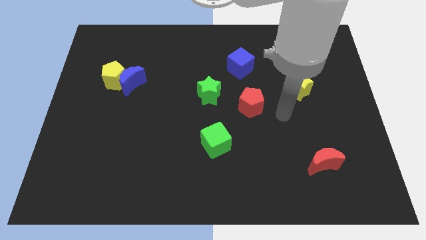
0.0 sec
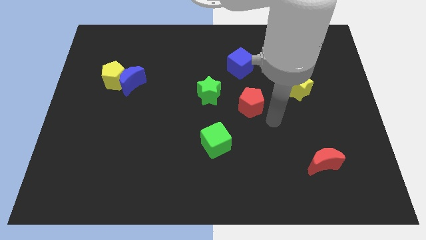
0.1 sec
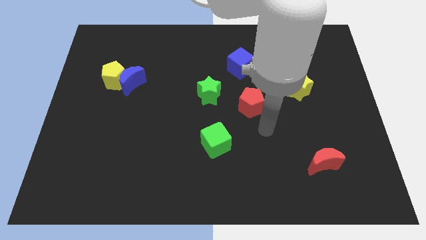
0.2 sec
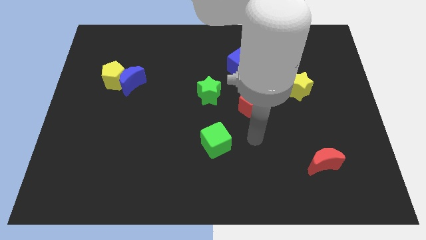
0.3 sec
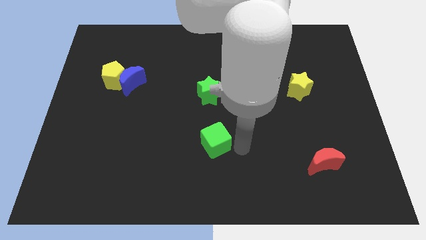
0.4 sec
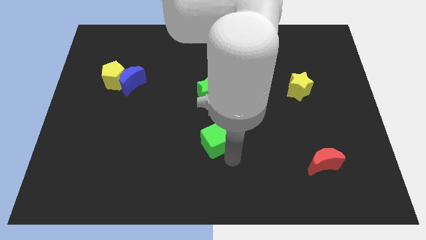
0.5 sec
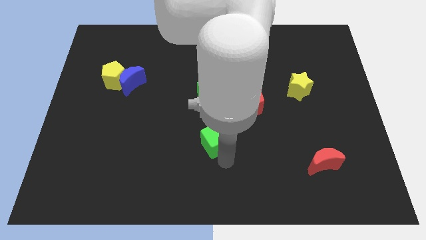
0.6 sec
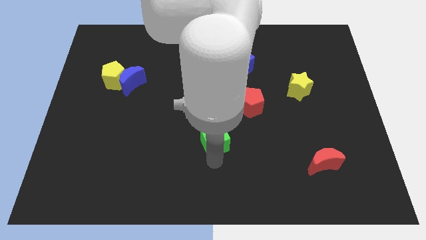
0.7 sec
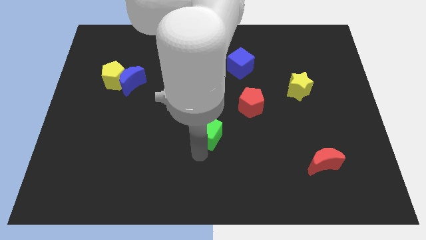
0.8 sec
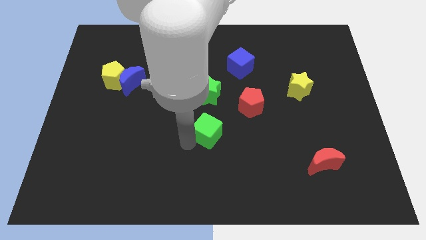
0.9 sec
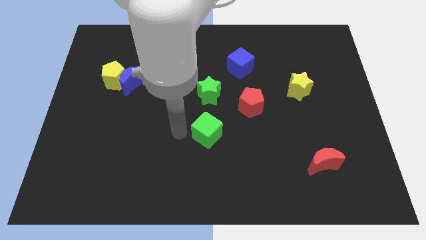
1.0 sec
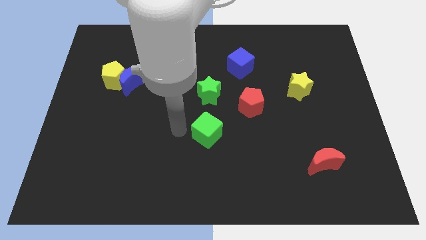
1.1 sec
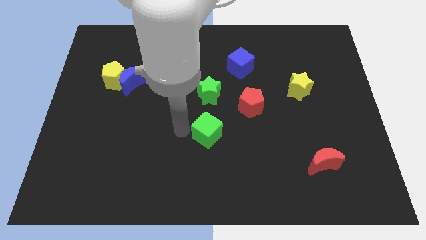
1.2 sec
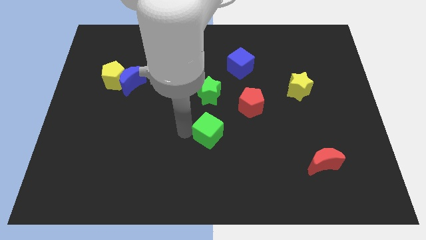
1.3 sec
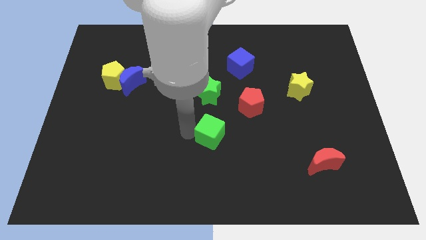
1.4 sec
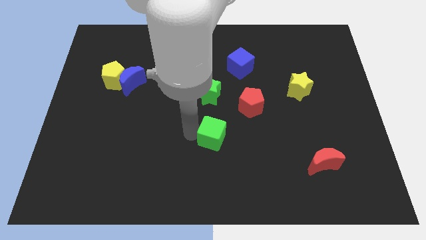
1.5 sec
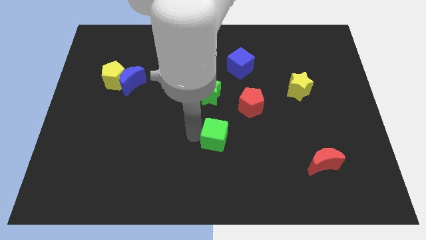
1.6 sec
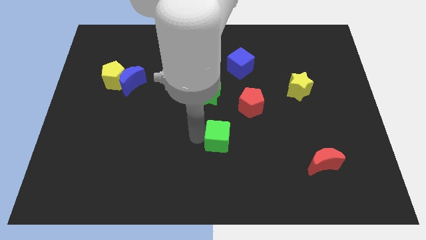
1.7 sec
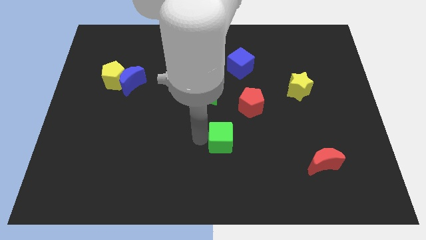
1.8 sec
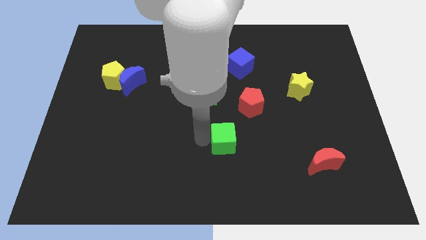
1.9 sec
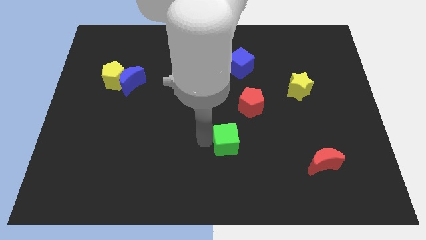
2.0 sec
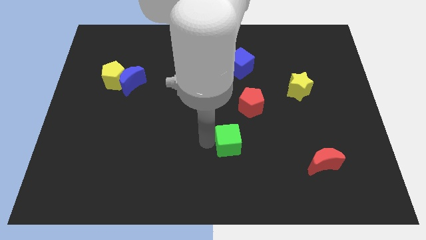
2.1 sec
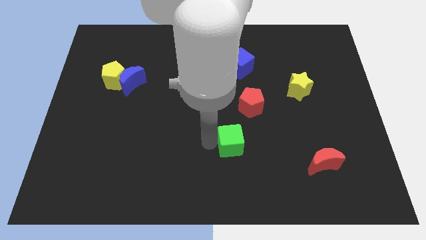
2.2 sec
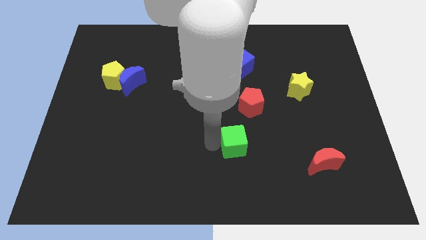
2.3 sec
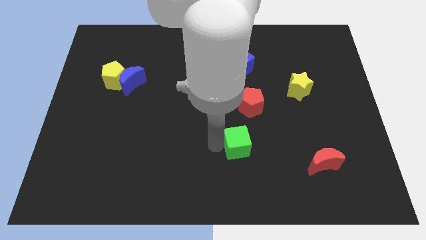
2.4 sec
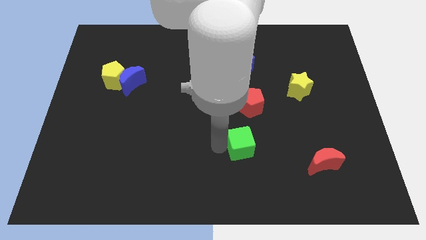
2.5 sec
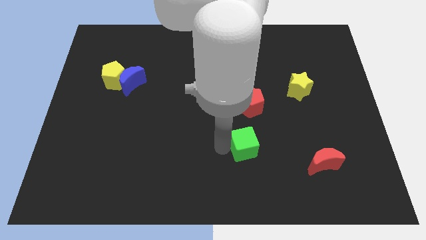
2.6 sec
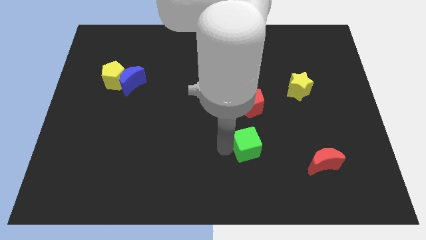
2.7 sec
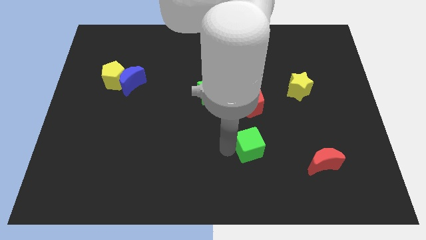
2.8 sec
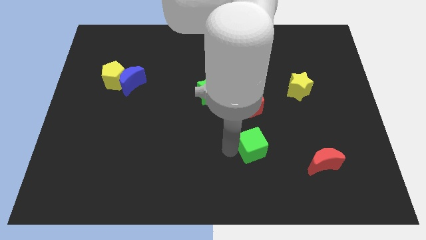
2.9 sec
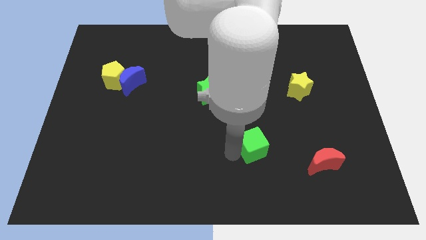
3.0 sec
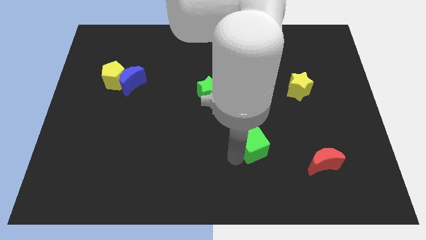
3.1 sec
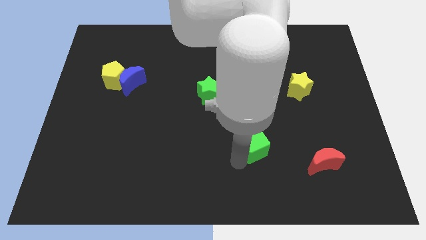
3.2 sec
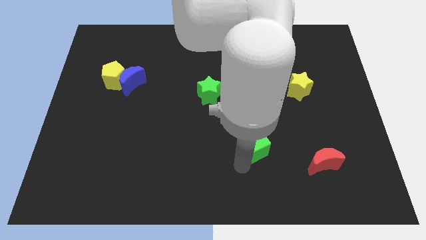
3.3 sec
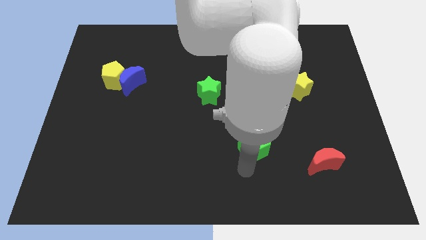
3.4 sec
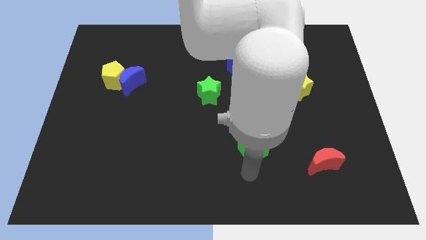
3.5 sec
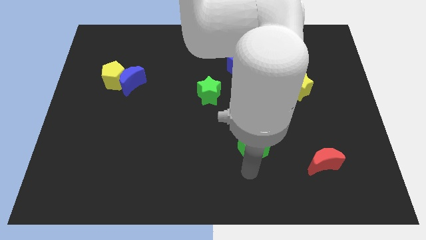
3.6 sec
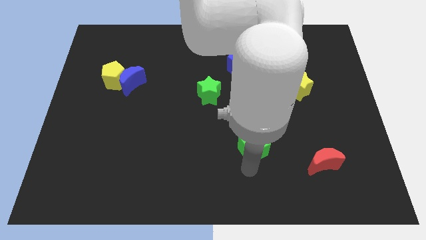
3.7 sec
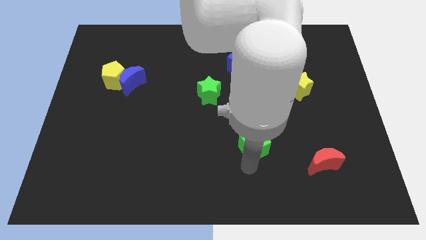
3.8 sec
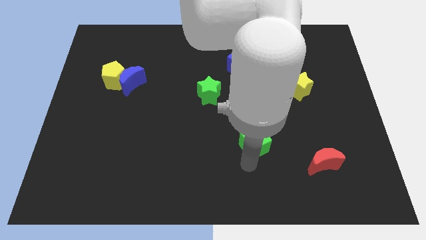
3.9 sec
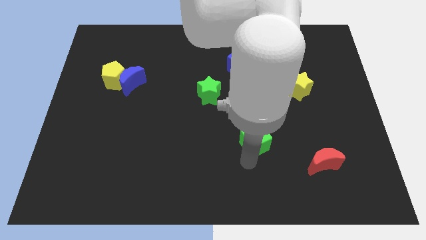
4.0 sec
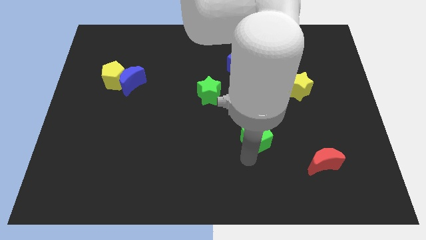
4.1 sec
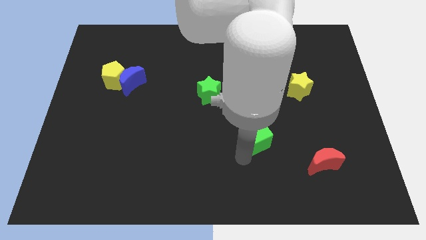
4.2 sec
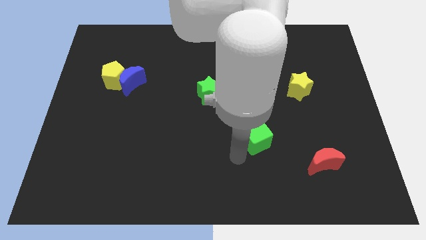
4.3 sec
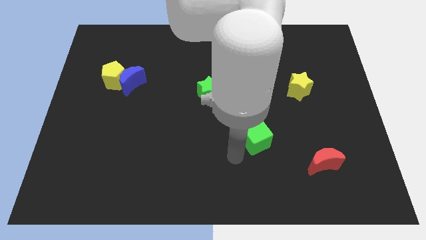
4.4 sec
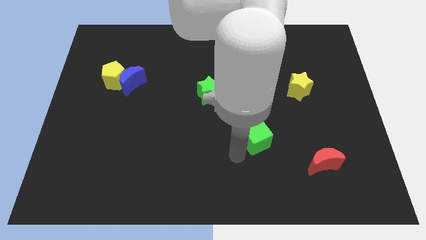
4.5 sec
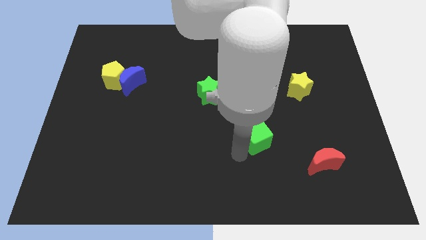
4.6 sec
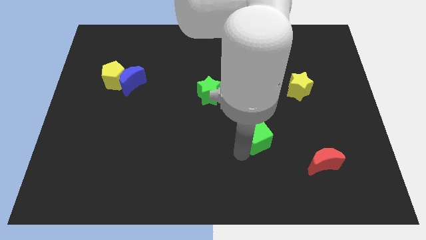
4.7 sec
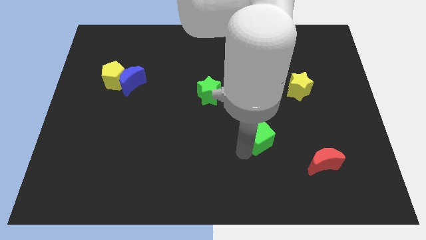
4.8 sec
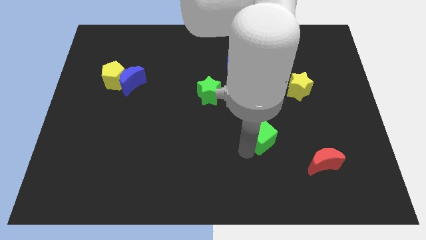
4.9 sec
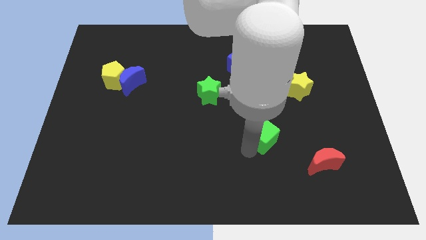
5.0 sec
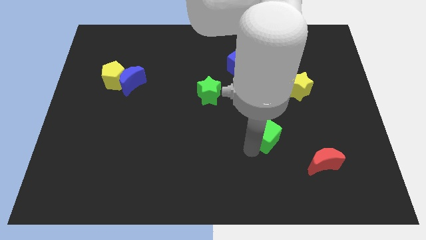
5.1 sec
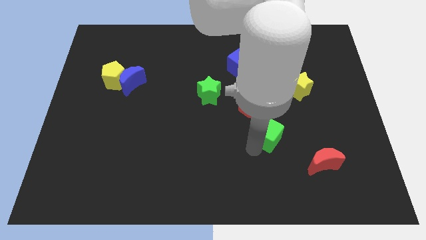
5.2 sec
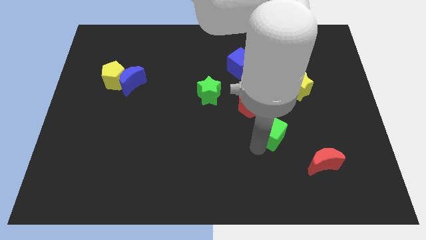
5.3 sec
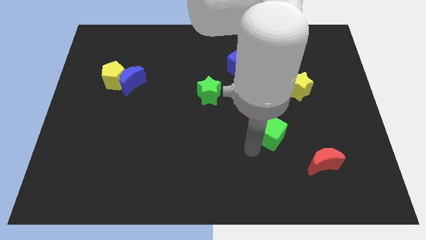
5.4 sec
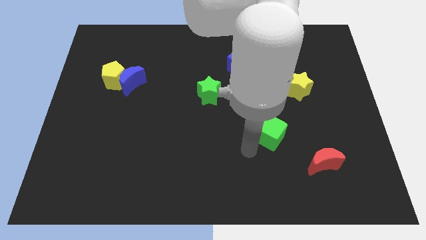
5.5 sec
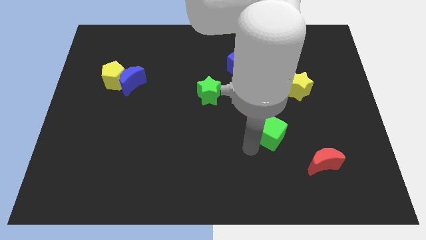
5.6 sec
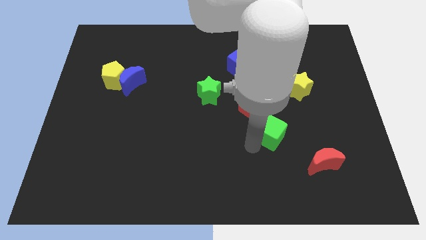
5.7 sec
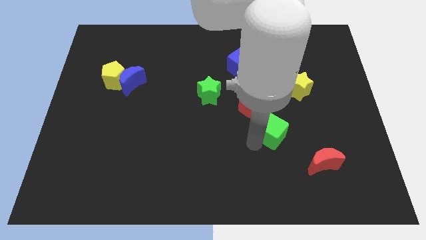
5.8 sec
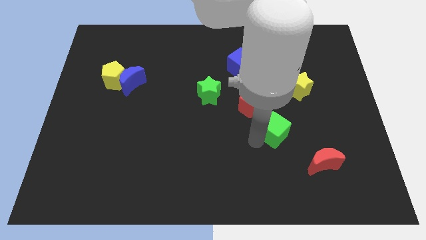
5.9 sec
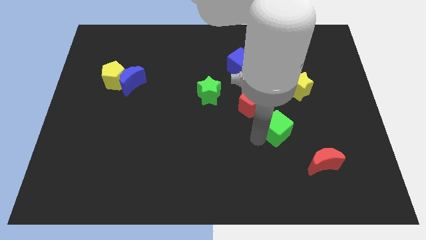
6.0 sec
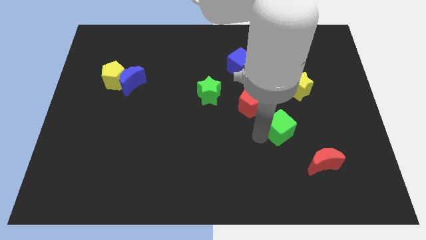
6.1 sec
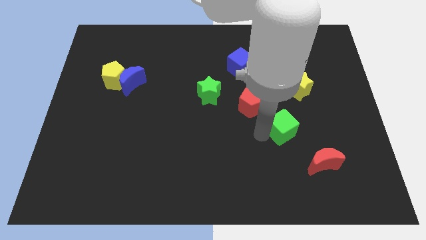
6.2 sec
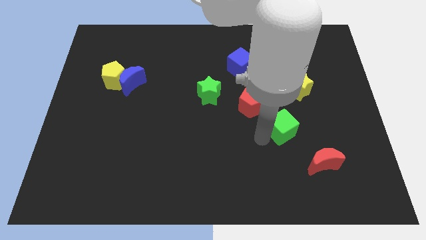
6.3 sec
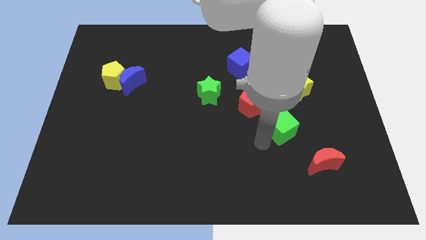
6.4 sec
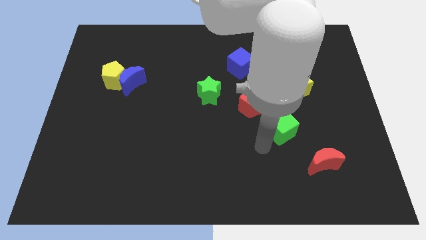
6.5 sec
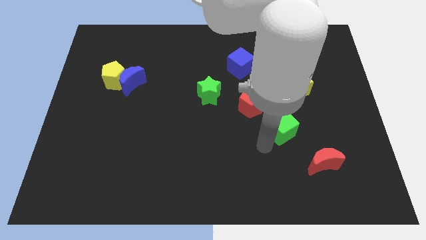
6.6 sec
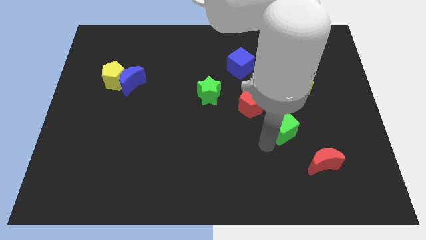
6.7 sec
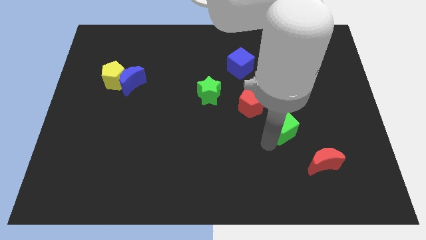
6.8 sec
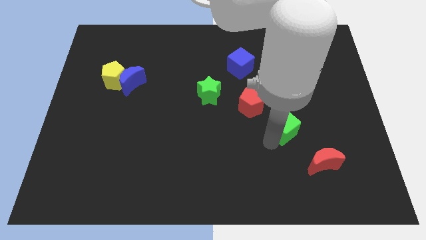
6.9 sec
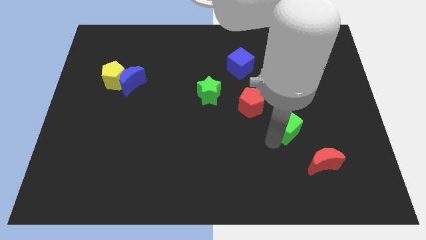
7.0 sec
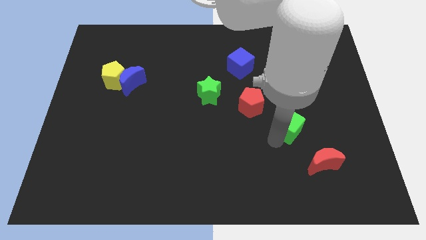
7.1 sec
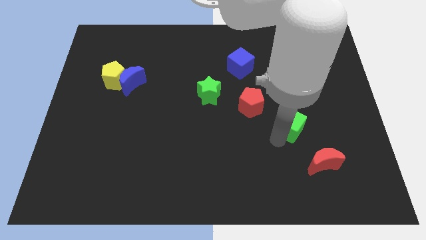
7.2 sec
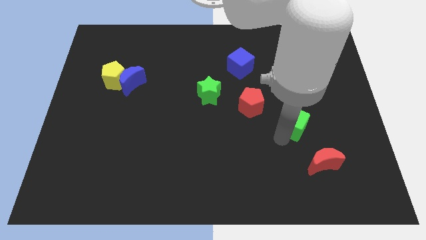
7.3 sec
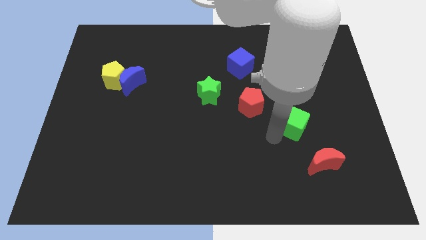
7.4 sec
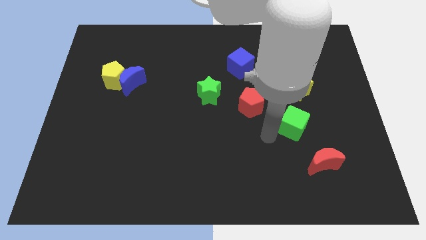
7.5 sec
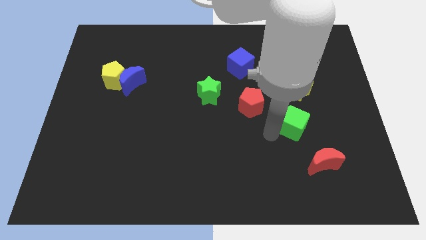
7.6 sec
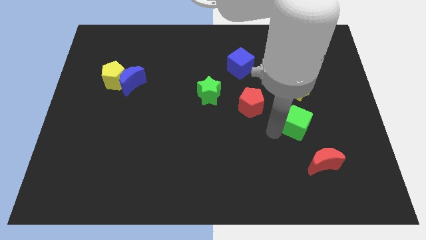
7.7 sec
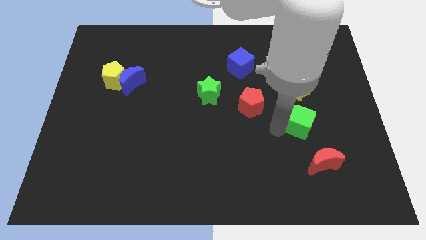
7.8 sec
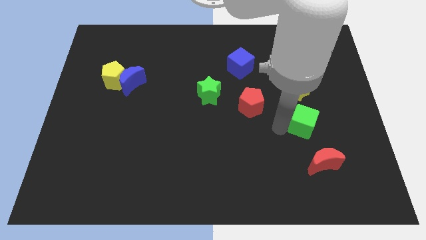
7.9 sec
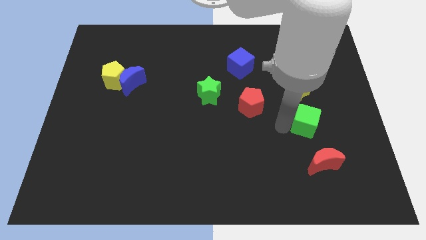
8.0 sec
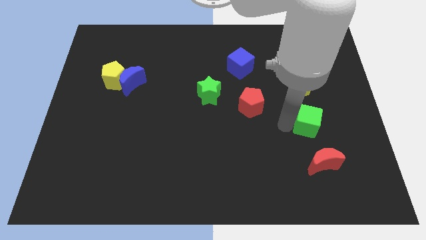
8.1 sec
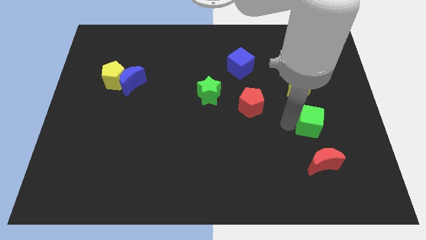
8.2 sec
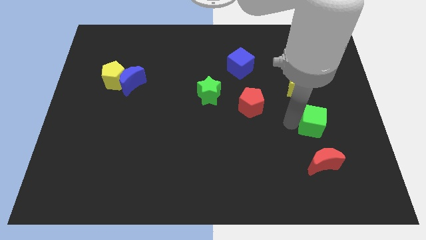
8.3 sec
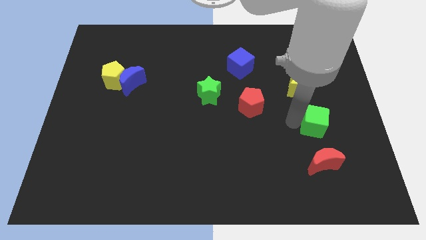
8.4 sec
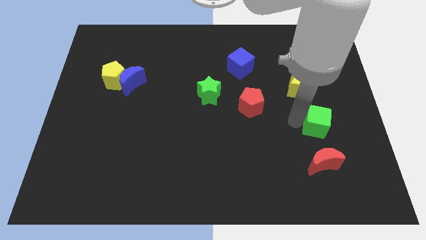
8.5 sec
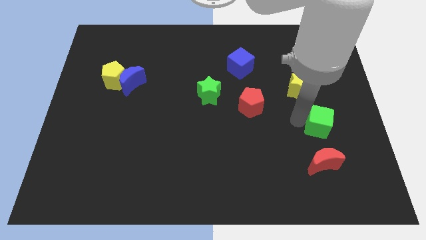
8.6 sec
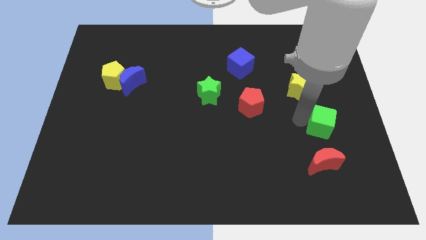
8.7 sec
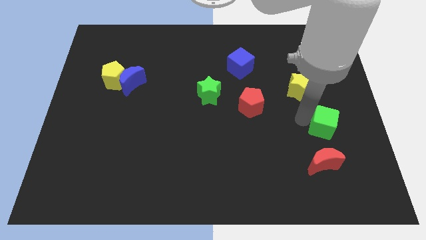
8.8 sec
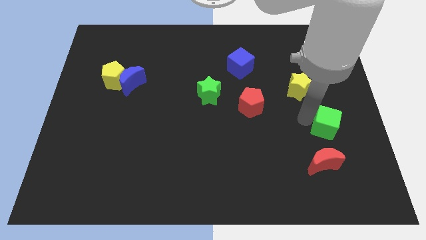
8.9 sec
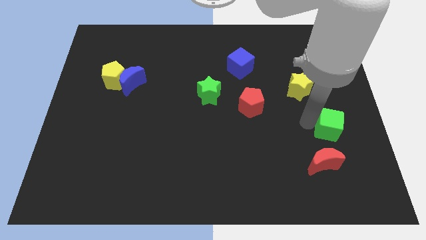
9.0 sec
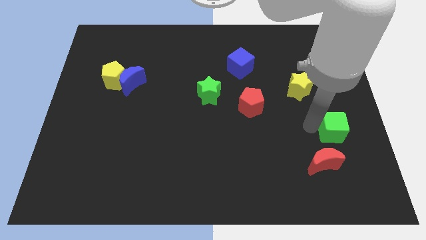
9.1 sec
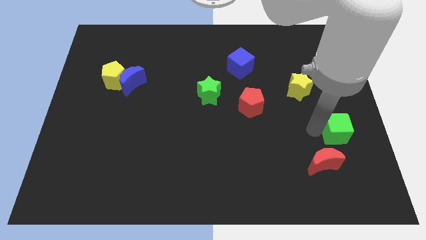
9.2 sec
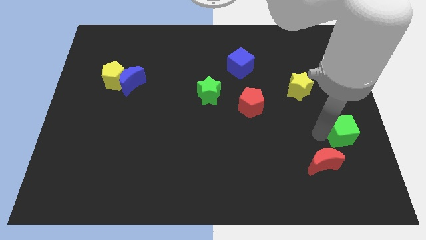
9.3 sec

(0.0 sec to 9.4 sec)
put the green cube to the right side
